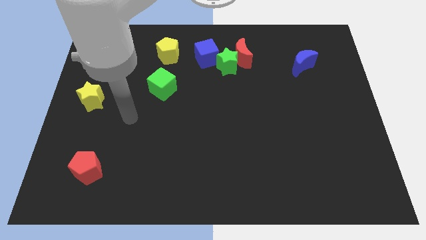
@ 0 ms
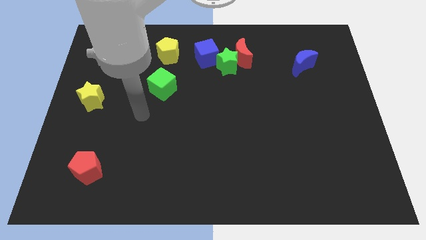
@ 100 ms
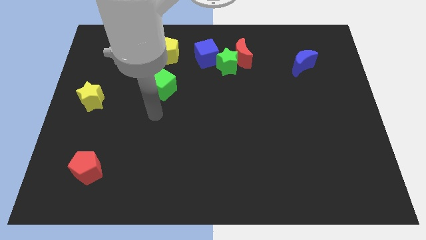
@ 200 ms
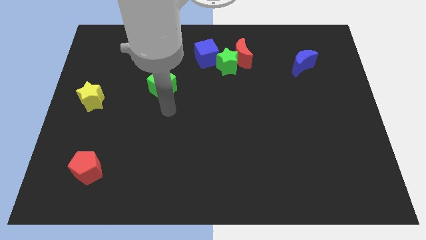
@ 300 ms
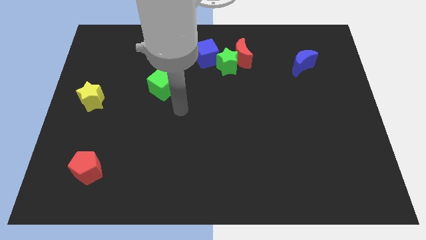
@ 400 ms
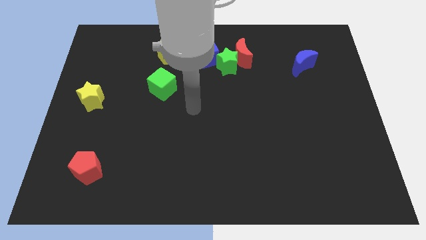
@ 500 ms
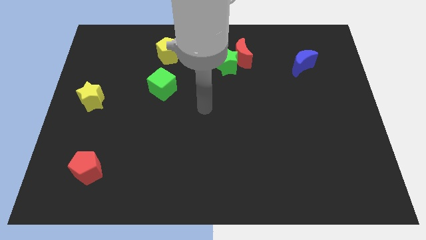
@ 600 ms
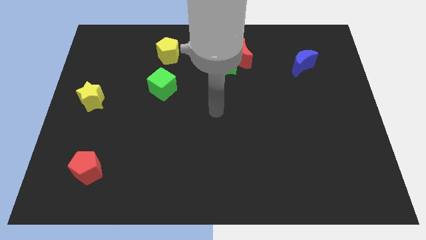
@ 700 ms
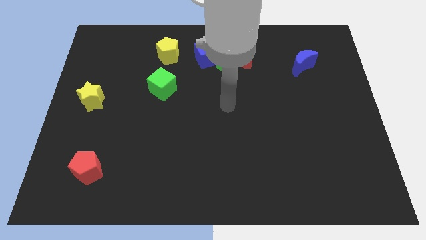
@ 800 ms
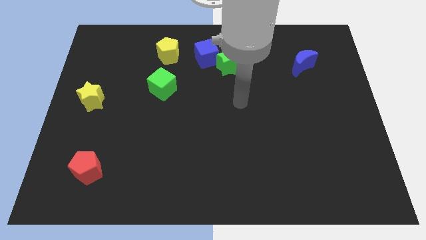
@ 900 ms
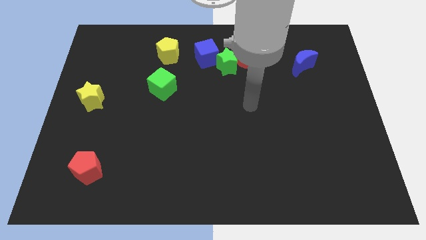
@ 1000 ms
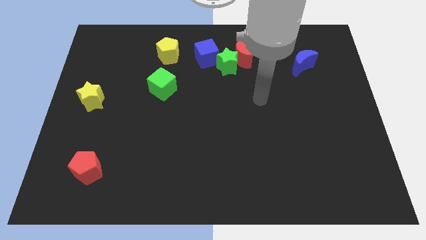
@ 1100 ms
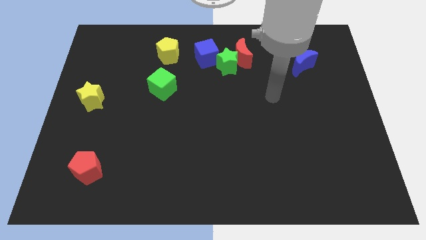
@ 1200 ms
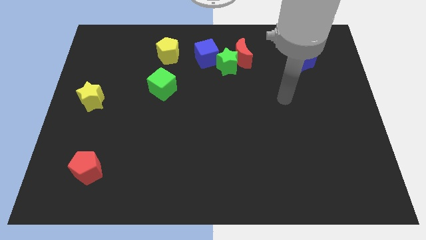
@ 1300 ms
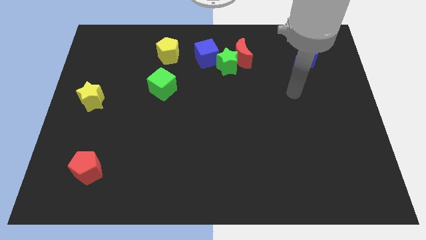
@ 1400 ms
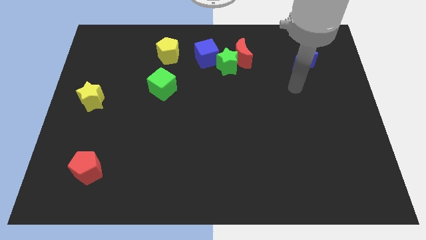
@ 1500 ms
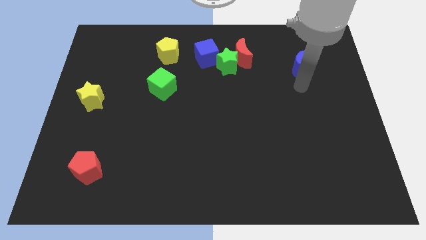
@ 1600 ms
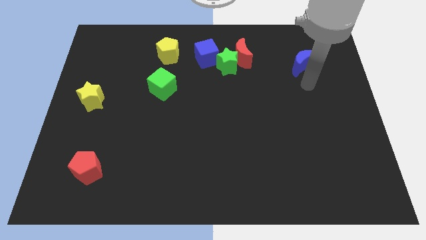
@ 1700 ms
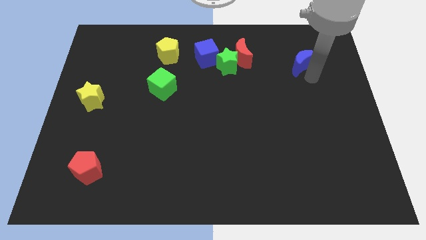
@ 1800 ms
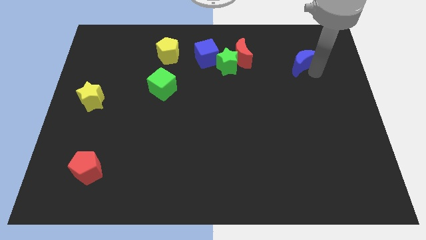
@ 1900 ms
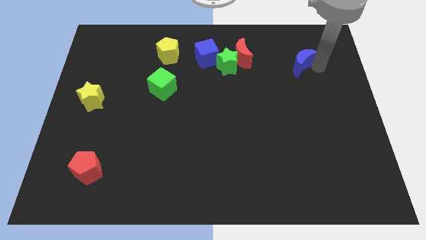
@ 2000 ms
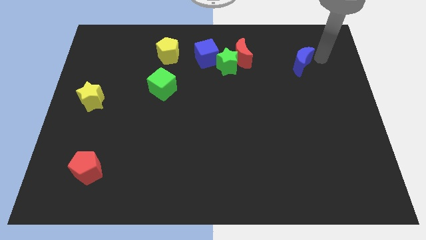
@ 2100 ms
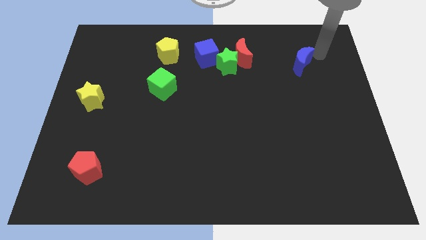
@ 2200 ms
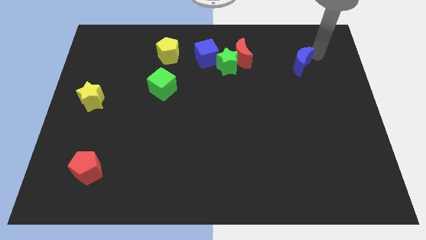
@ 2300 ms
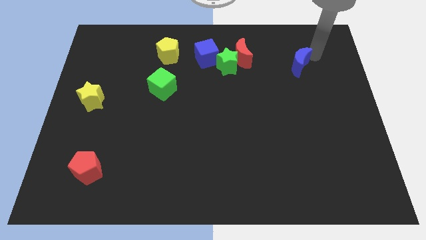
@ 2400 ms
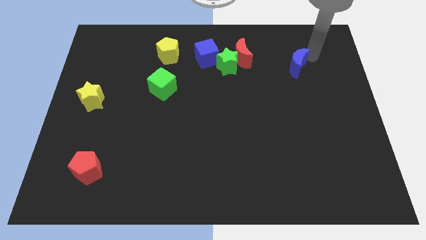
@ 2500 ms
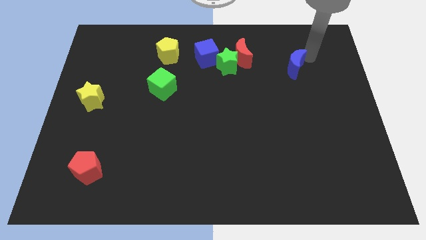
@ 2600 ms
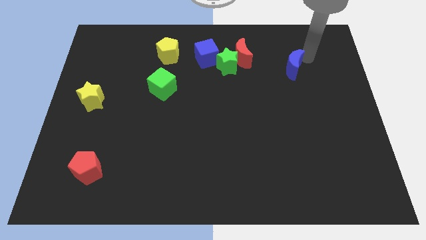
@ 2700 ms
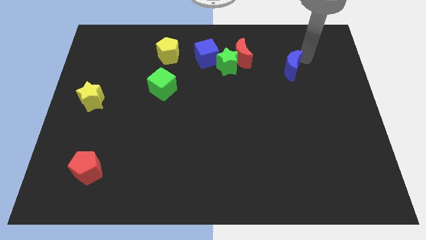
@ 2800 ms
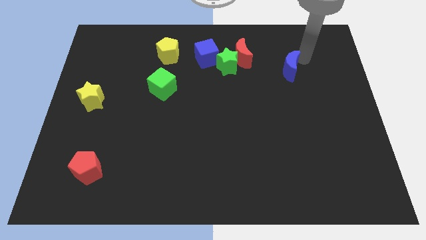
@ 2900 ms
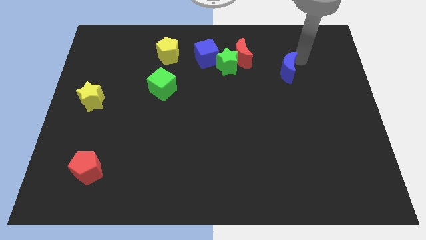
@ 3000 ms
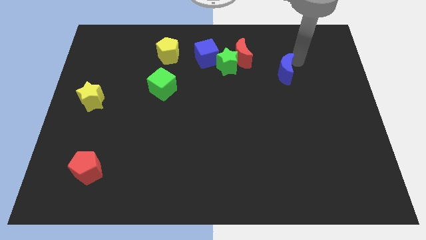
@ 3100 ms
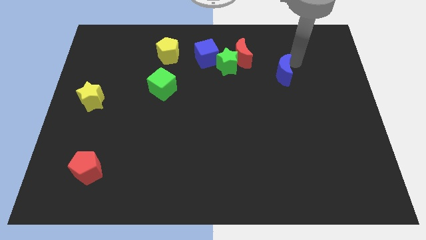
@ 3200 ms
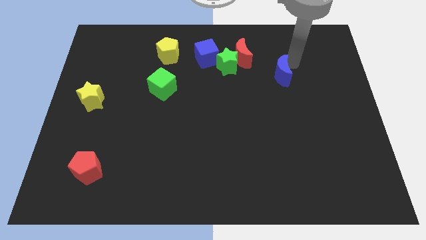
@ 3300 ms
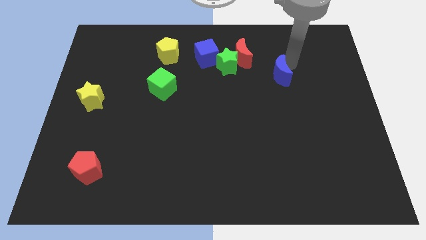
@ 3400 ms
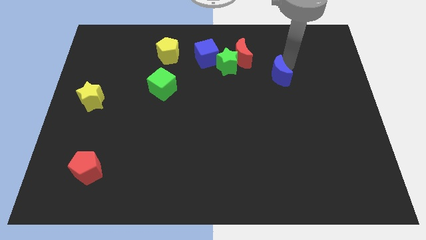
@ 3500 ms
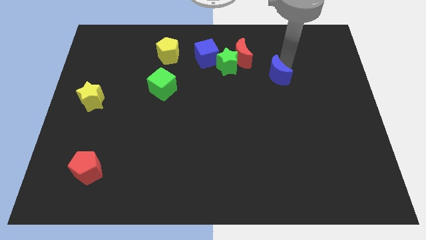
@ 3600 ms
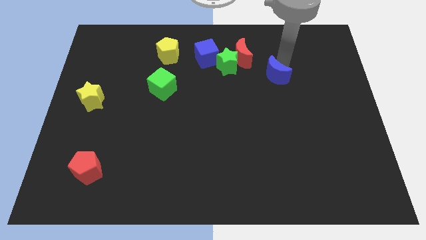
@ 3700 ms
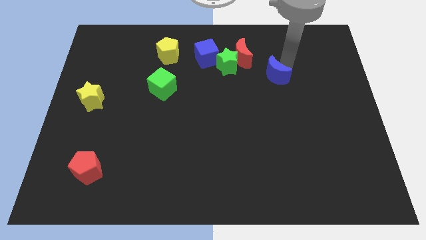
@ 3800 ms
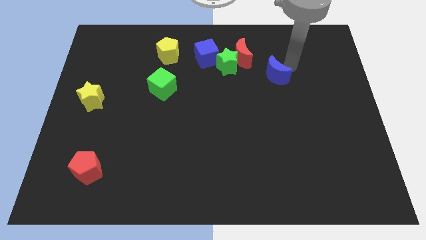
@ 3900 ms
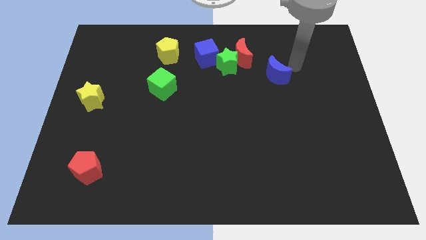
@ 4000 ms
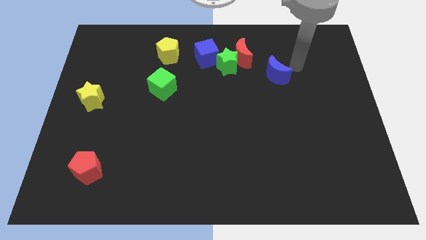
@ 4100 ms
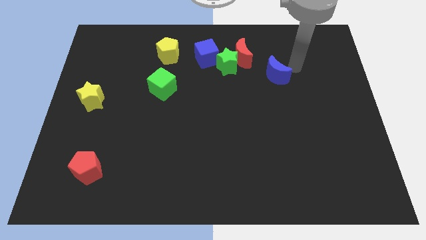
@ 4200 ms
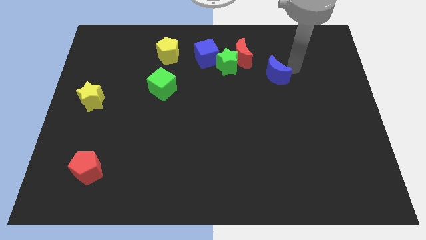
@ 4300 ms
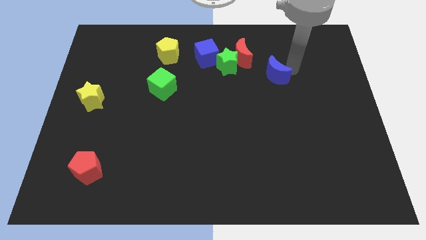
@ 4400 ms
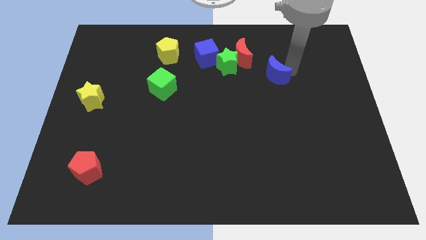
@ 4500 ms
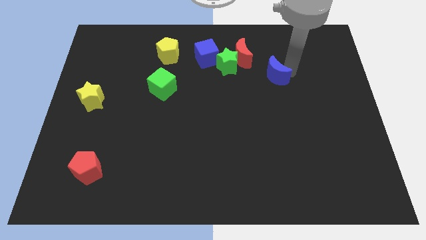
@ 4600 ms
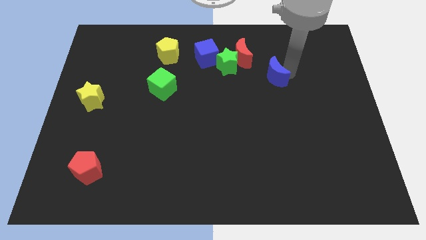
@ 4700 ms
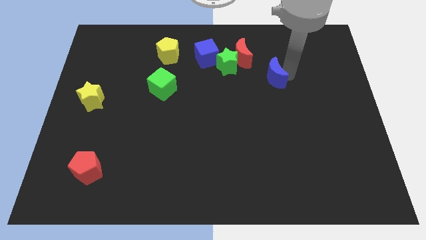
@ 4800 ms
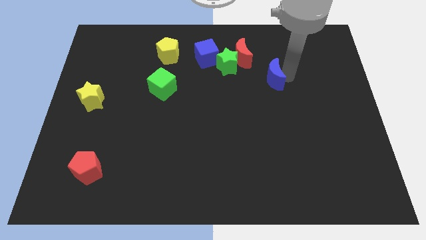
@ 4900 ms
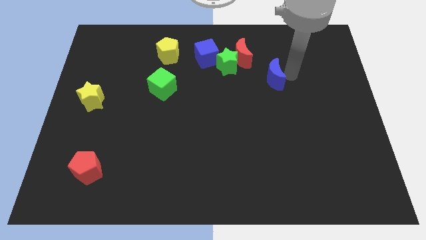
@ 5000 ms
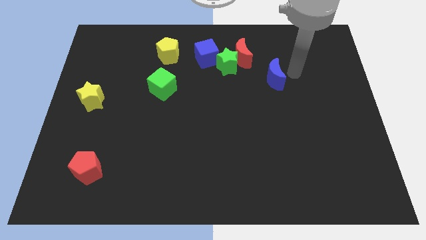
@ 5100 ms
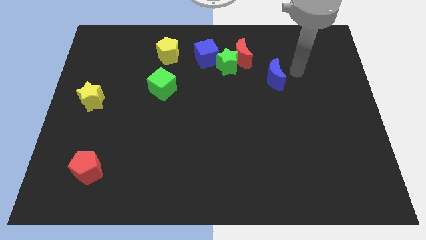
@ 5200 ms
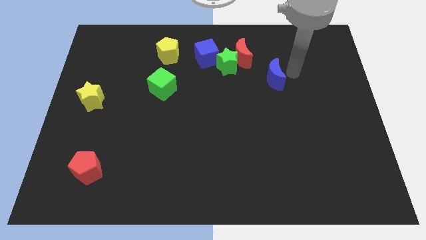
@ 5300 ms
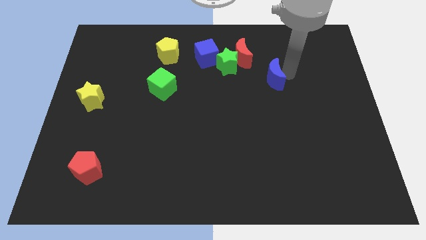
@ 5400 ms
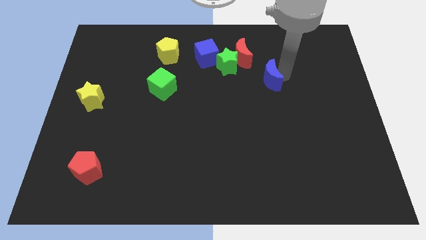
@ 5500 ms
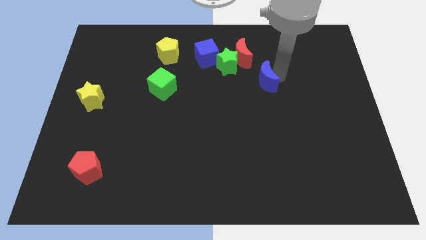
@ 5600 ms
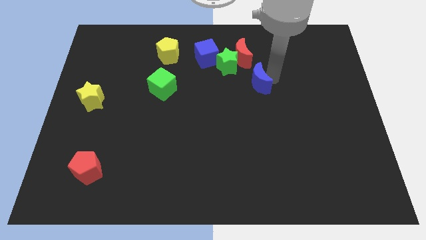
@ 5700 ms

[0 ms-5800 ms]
put the blue moon to the middle of the board
